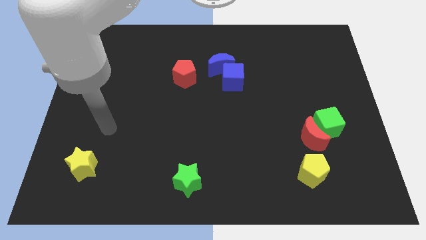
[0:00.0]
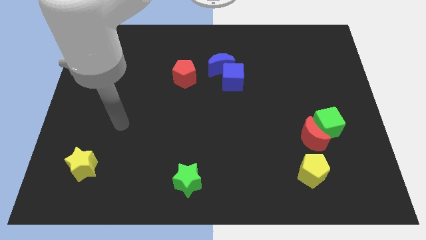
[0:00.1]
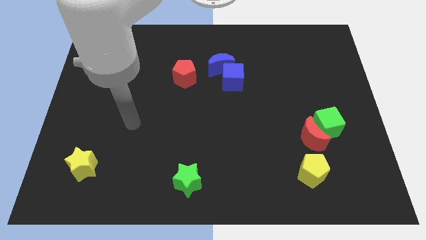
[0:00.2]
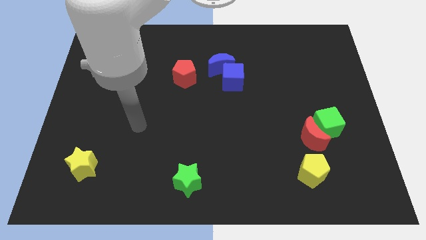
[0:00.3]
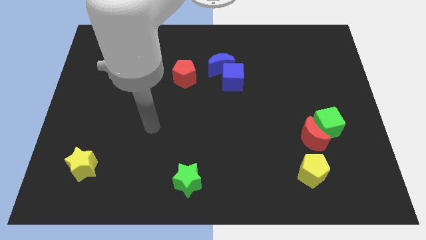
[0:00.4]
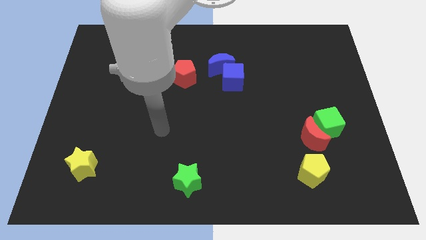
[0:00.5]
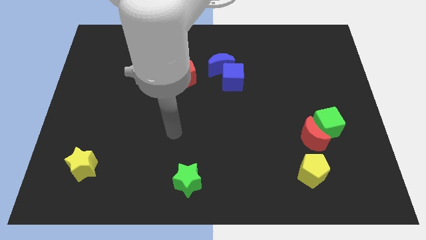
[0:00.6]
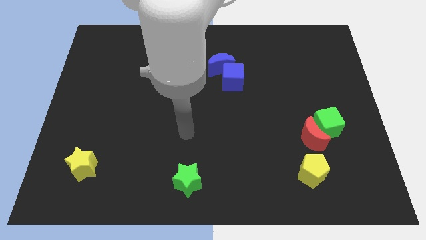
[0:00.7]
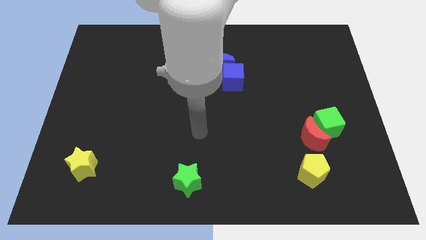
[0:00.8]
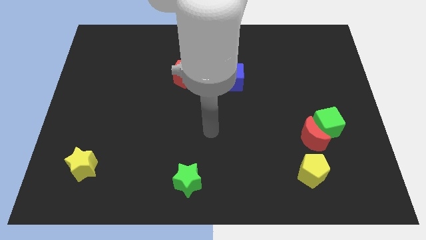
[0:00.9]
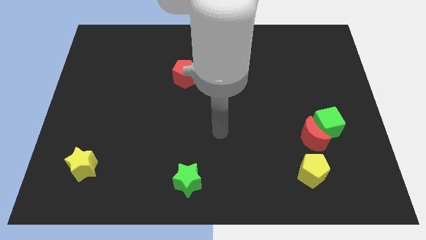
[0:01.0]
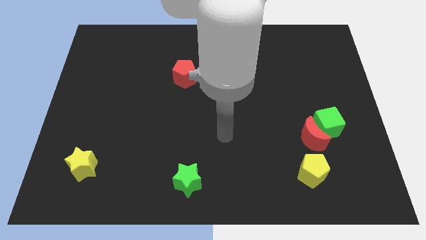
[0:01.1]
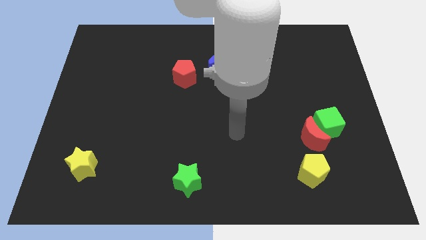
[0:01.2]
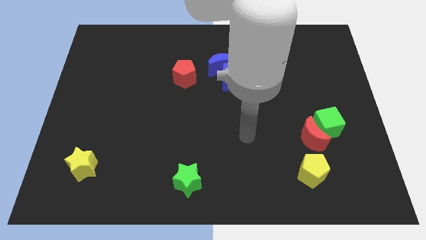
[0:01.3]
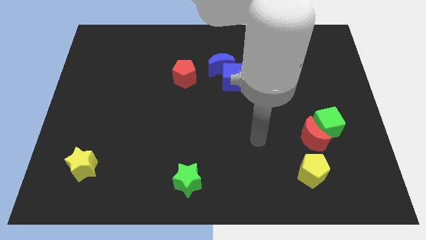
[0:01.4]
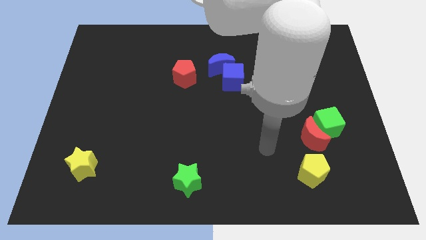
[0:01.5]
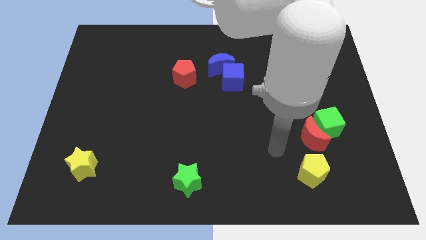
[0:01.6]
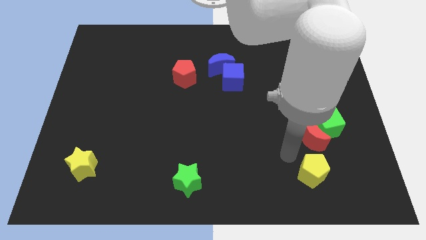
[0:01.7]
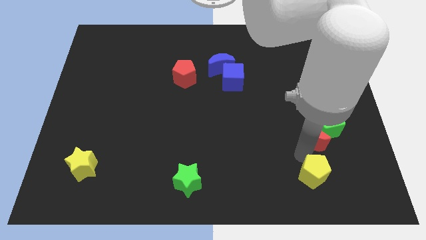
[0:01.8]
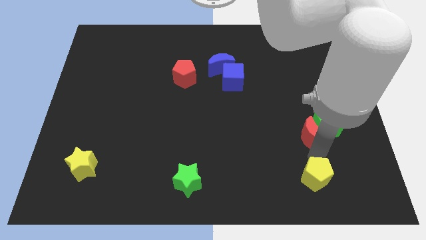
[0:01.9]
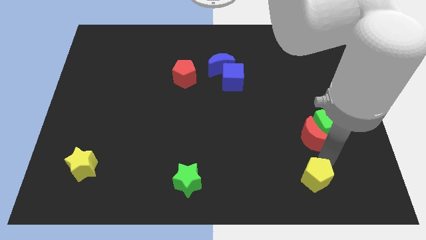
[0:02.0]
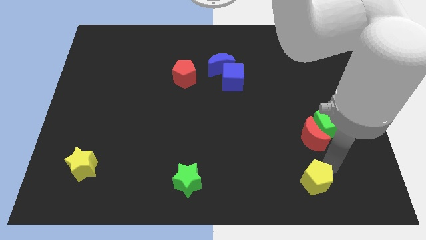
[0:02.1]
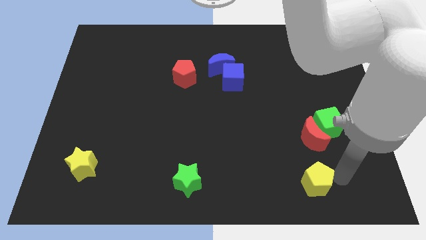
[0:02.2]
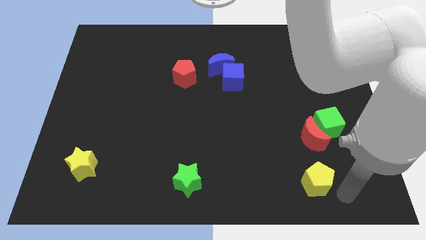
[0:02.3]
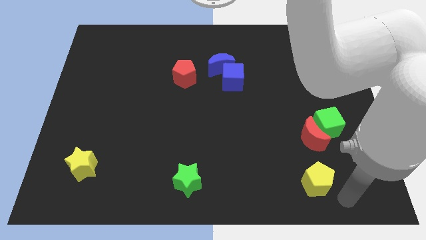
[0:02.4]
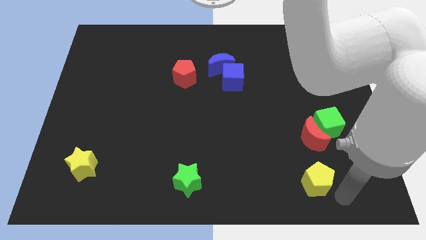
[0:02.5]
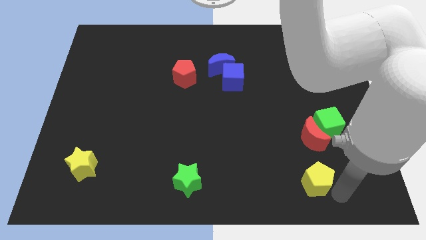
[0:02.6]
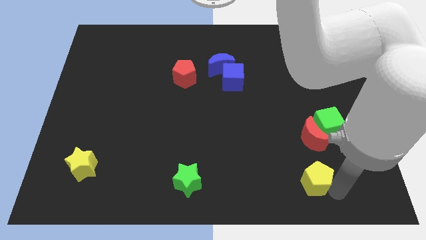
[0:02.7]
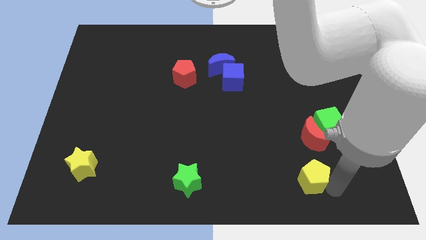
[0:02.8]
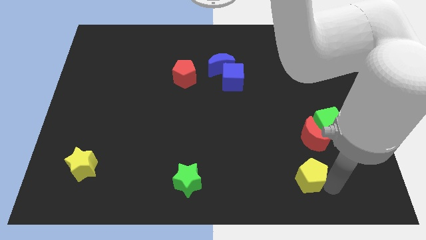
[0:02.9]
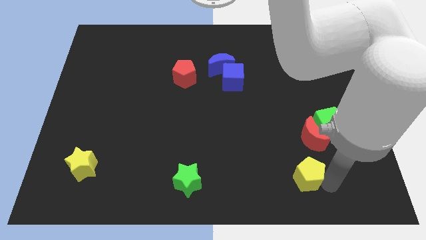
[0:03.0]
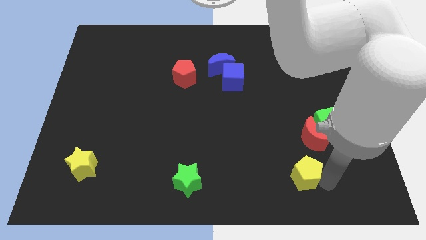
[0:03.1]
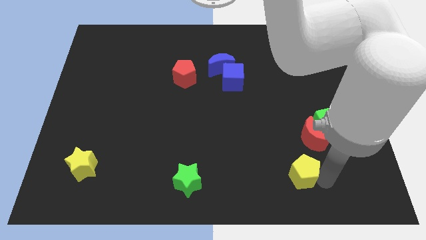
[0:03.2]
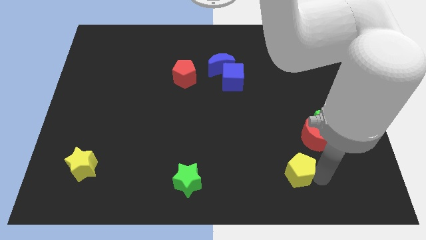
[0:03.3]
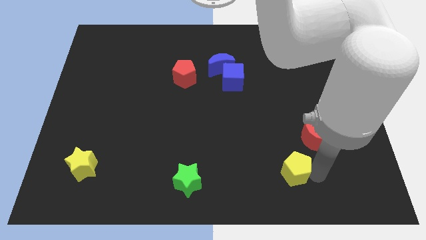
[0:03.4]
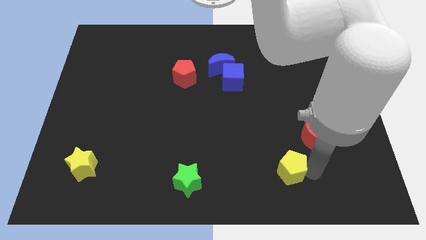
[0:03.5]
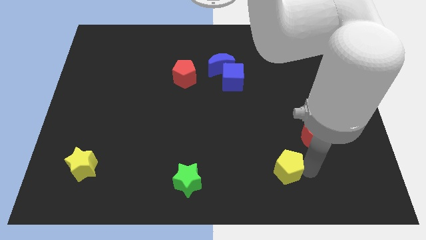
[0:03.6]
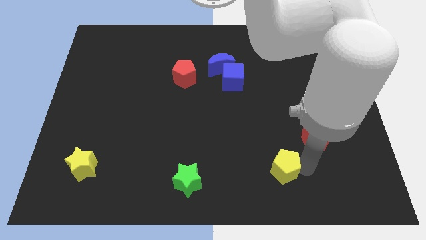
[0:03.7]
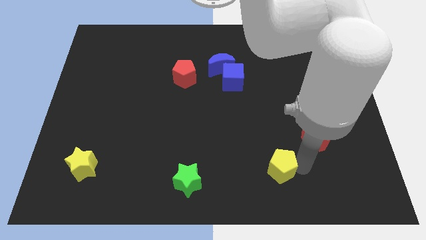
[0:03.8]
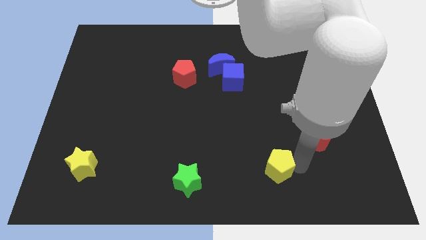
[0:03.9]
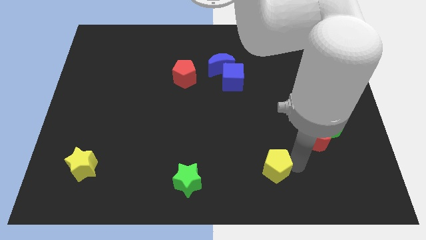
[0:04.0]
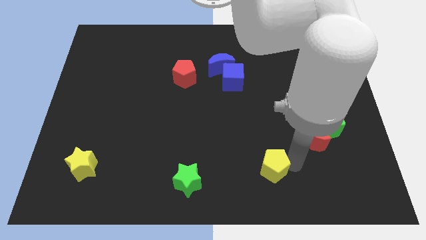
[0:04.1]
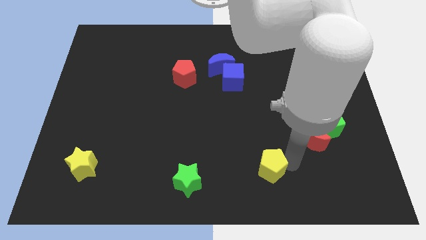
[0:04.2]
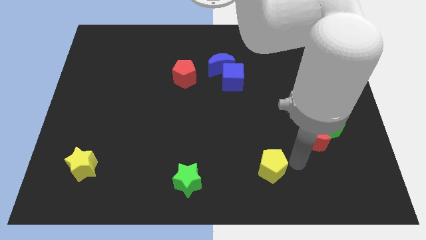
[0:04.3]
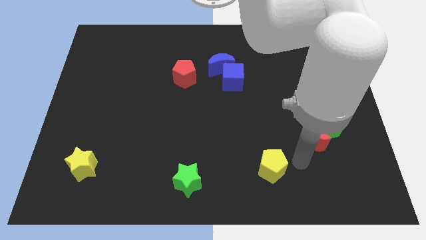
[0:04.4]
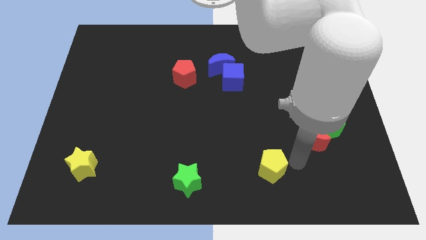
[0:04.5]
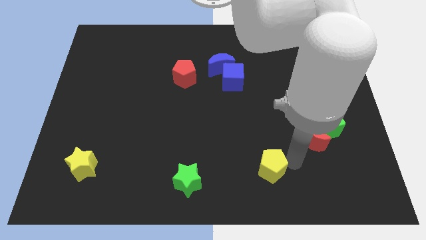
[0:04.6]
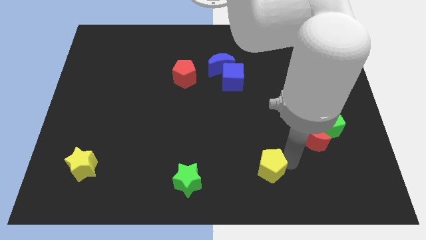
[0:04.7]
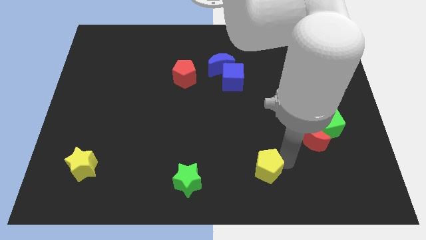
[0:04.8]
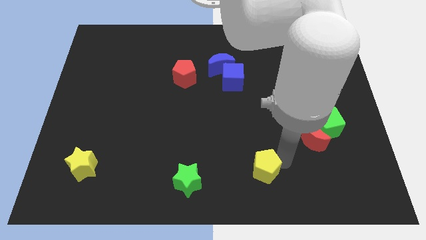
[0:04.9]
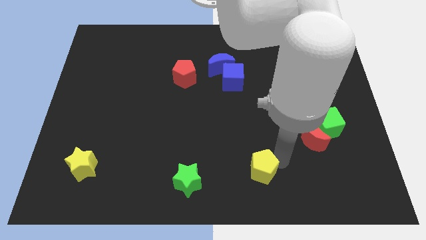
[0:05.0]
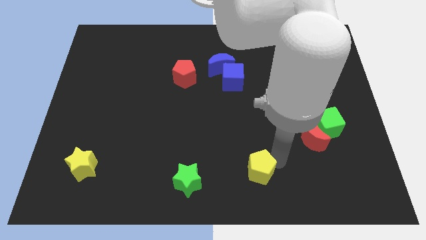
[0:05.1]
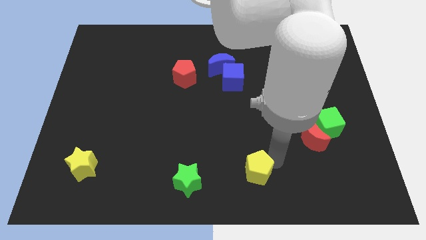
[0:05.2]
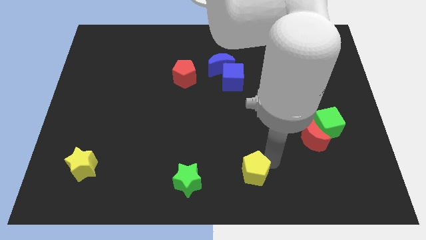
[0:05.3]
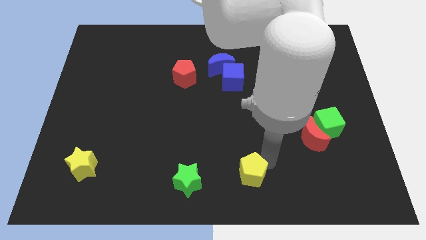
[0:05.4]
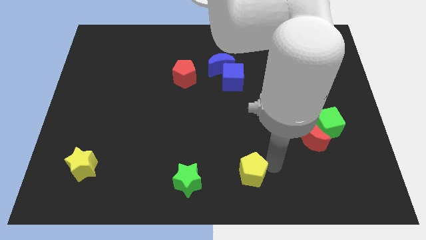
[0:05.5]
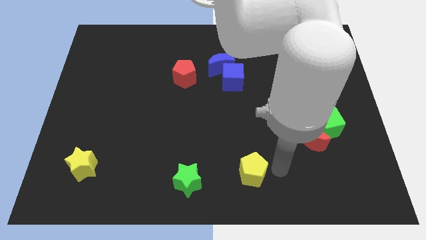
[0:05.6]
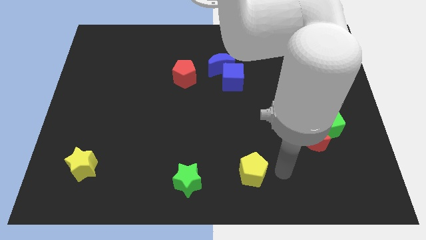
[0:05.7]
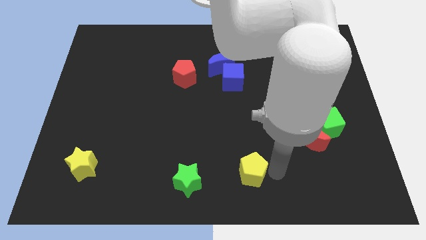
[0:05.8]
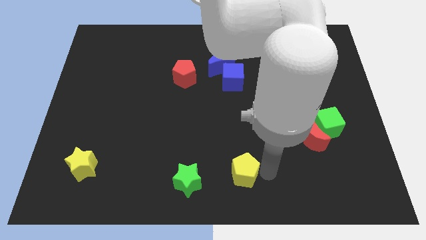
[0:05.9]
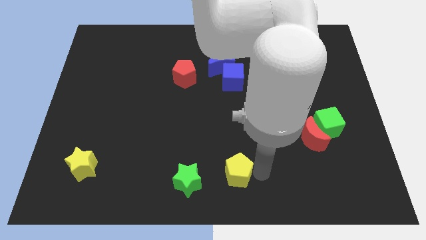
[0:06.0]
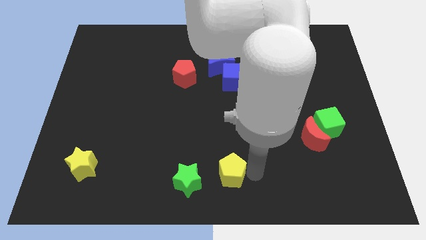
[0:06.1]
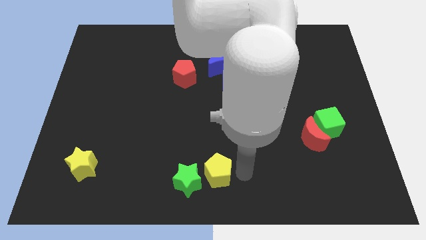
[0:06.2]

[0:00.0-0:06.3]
slide the yellow pentagon close to the green star
